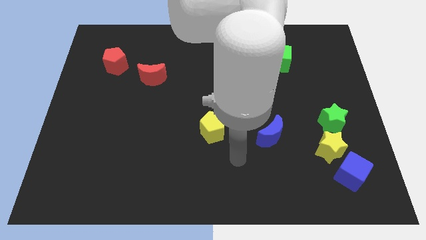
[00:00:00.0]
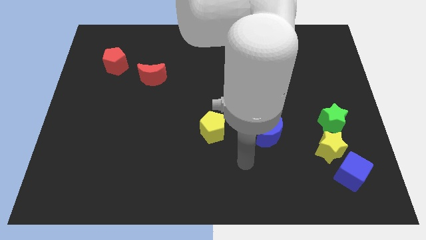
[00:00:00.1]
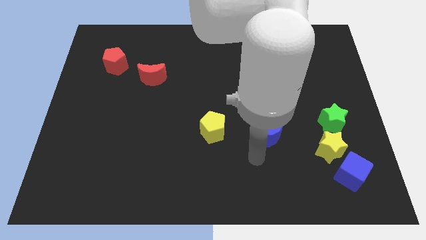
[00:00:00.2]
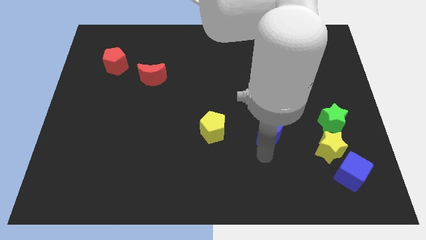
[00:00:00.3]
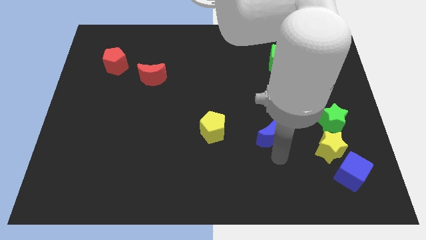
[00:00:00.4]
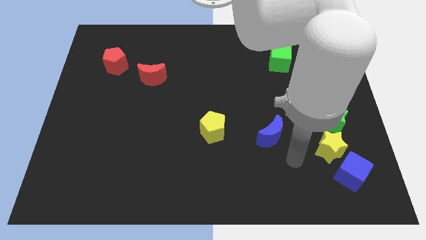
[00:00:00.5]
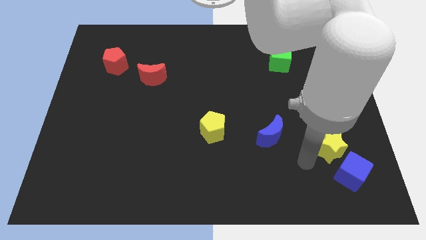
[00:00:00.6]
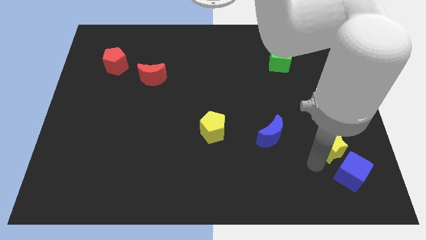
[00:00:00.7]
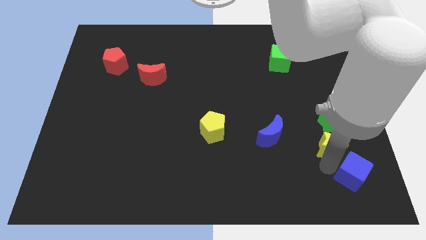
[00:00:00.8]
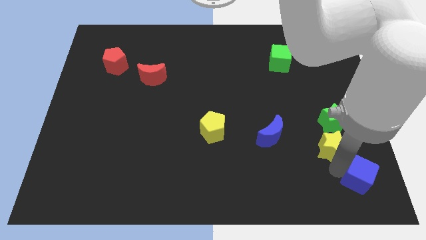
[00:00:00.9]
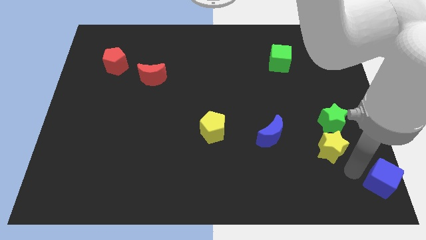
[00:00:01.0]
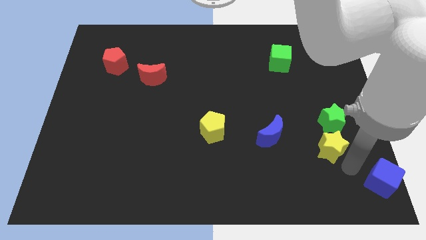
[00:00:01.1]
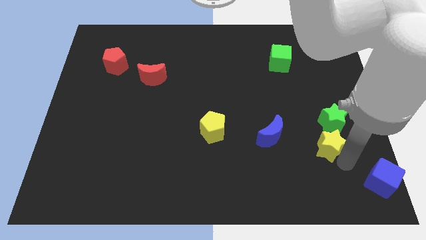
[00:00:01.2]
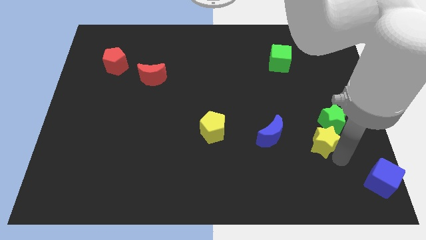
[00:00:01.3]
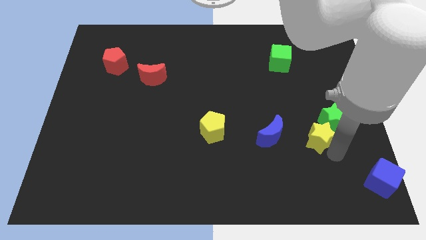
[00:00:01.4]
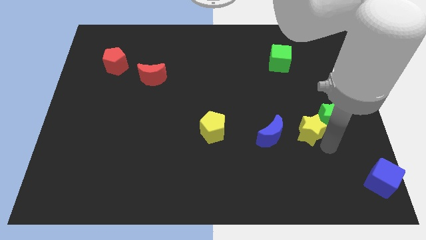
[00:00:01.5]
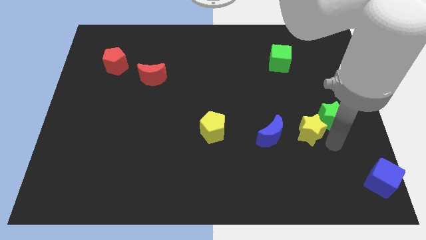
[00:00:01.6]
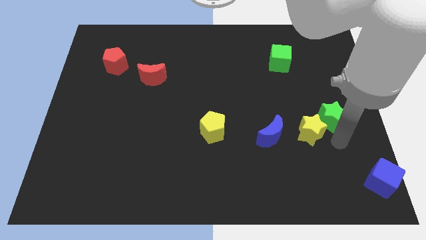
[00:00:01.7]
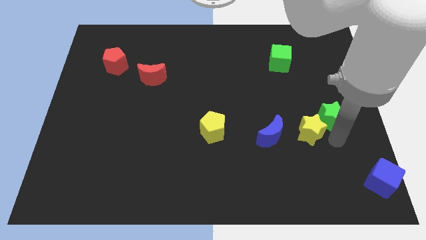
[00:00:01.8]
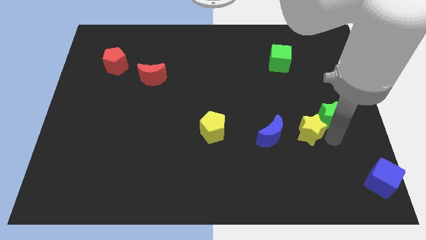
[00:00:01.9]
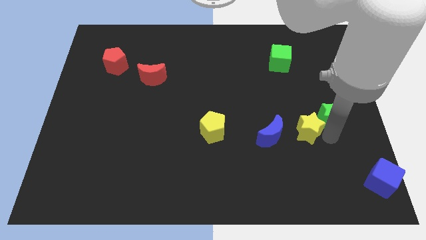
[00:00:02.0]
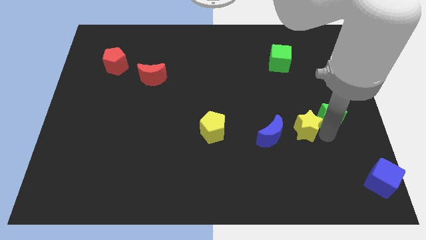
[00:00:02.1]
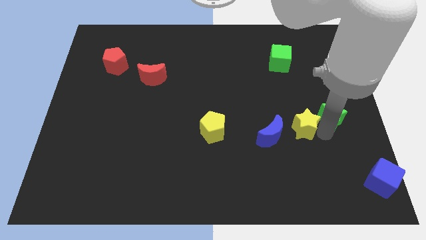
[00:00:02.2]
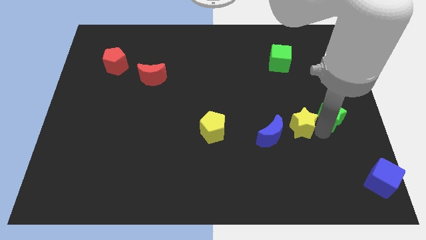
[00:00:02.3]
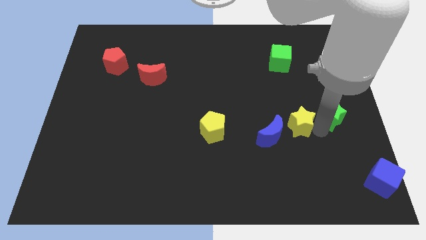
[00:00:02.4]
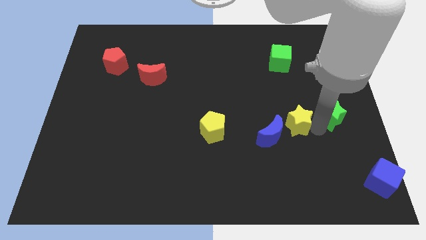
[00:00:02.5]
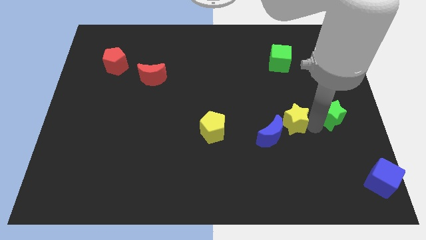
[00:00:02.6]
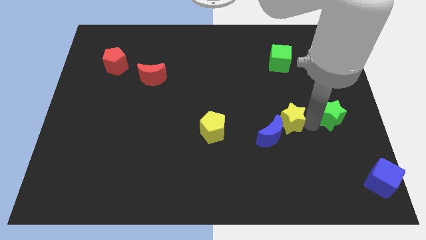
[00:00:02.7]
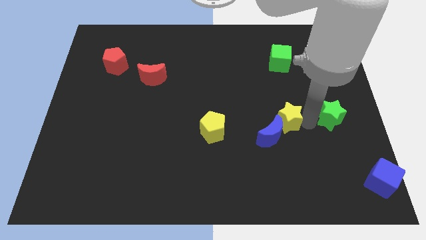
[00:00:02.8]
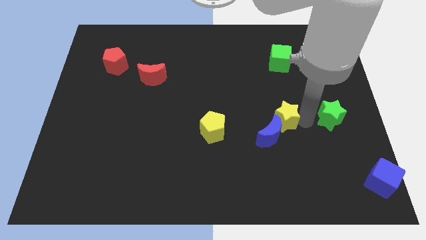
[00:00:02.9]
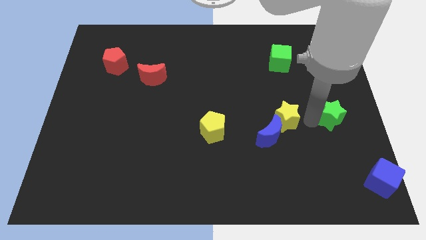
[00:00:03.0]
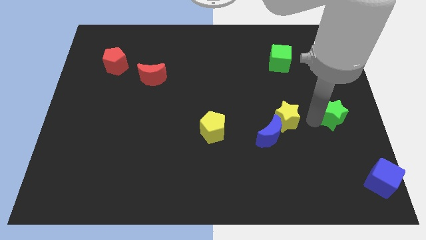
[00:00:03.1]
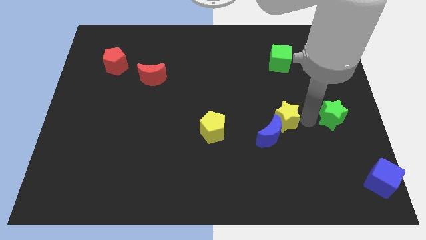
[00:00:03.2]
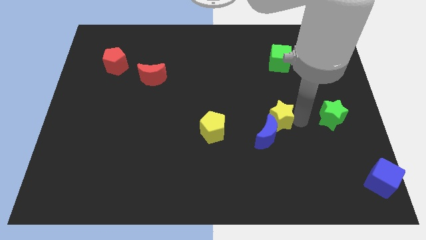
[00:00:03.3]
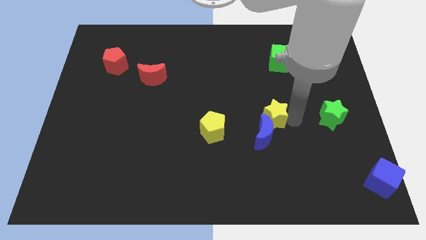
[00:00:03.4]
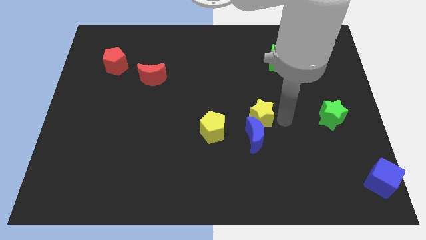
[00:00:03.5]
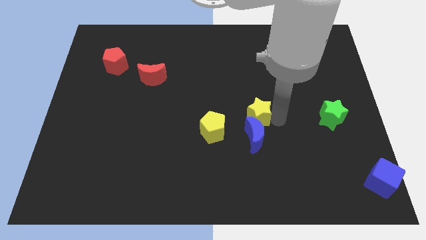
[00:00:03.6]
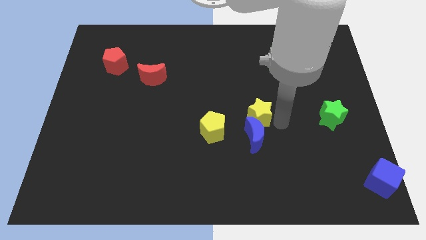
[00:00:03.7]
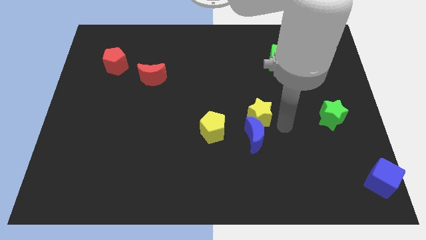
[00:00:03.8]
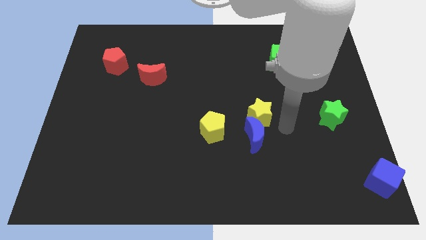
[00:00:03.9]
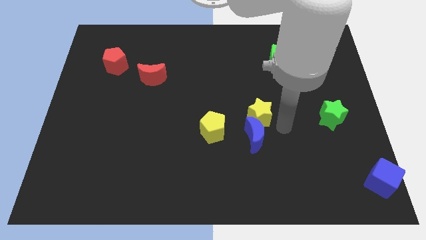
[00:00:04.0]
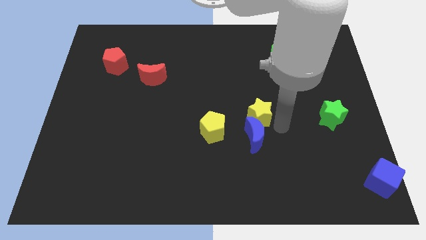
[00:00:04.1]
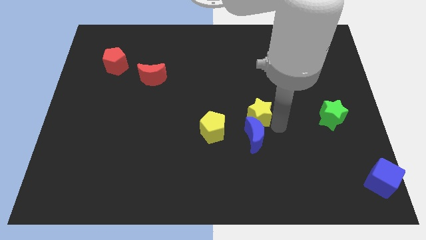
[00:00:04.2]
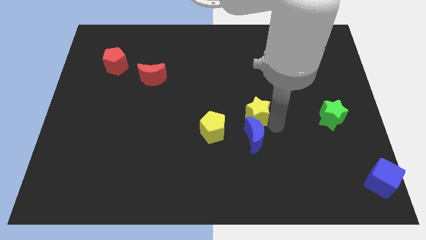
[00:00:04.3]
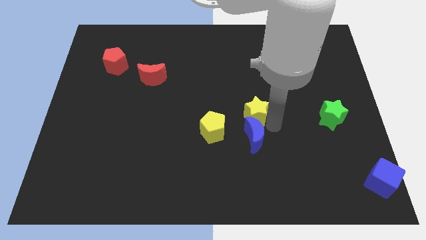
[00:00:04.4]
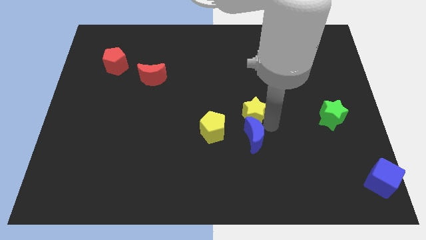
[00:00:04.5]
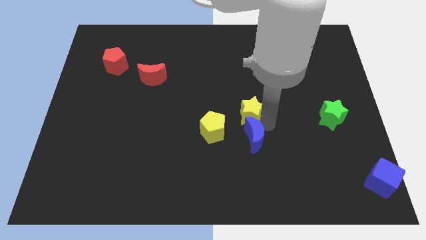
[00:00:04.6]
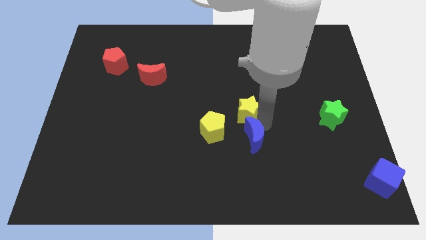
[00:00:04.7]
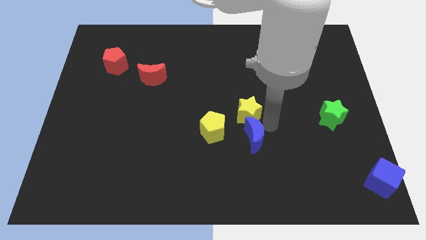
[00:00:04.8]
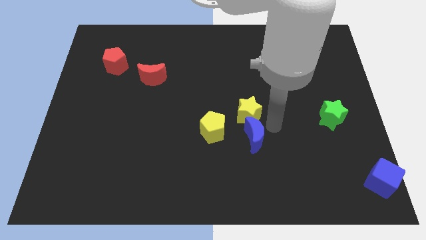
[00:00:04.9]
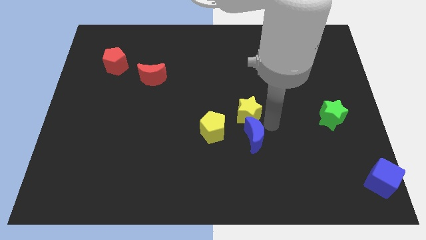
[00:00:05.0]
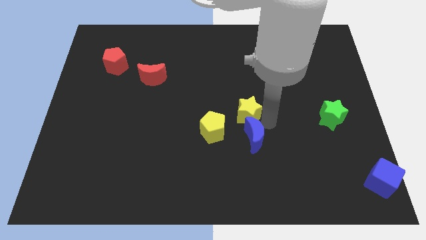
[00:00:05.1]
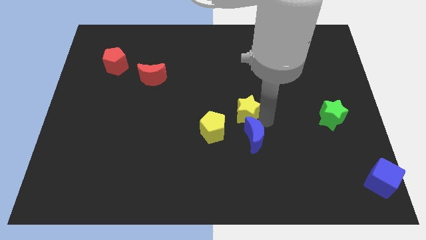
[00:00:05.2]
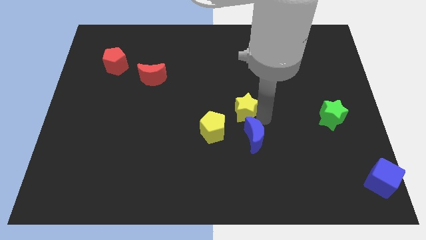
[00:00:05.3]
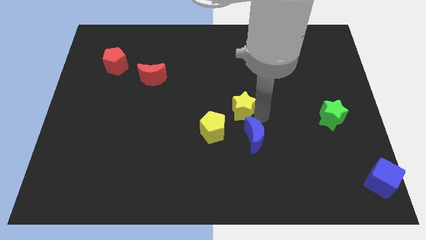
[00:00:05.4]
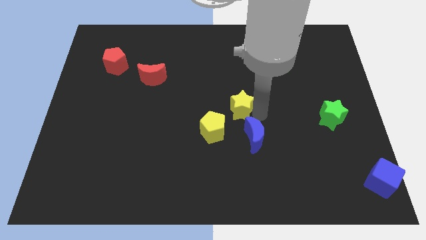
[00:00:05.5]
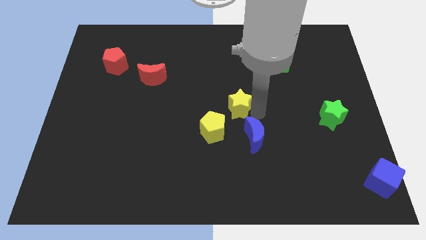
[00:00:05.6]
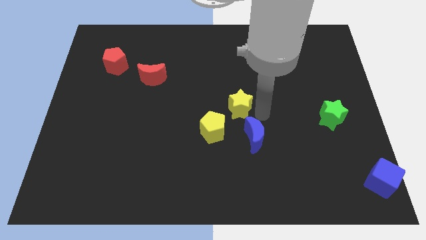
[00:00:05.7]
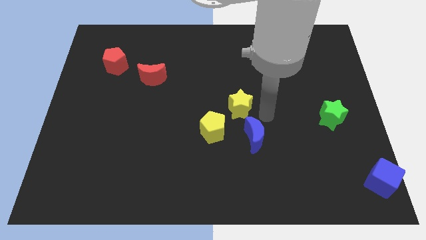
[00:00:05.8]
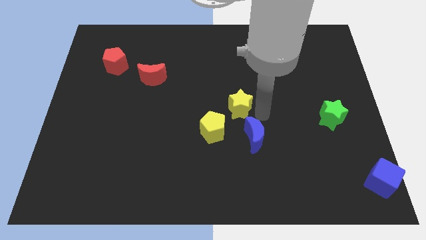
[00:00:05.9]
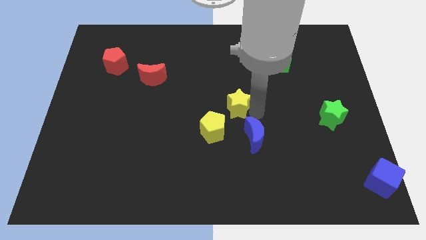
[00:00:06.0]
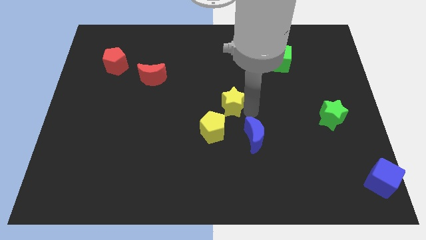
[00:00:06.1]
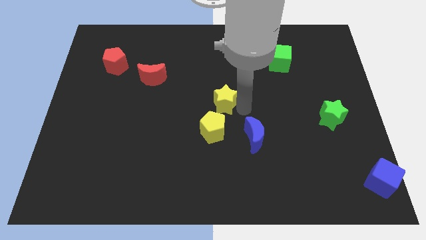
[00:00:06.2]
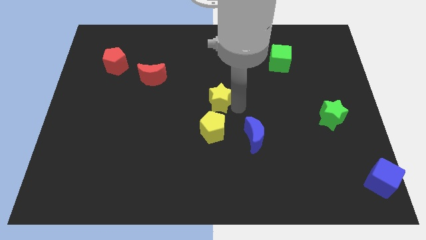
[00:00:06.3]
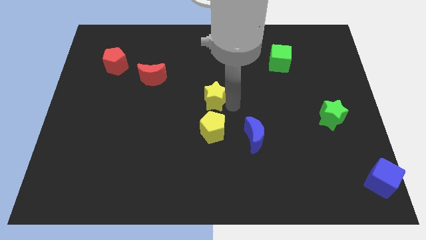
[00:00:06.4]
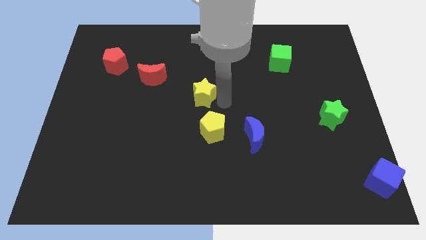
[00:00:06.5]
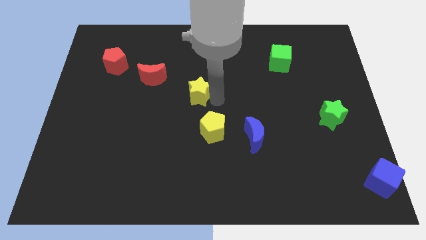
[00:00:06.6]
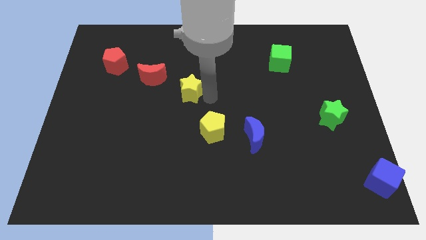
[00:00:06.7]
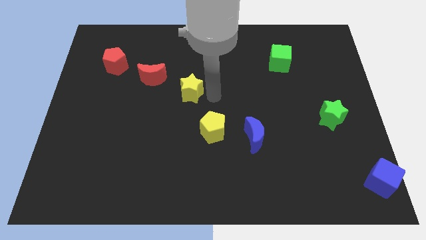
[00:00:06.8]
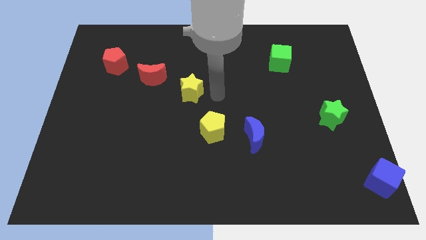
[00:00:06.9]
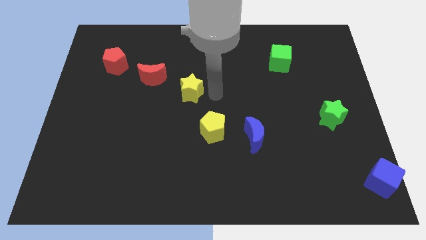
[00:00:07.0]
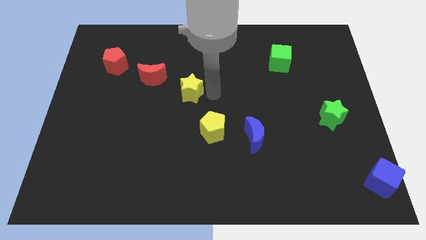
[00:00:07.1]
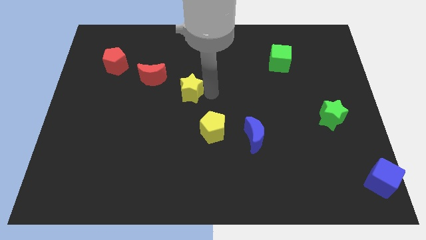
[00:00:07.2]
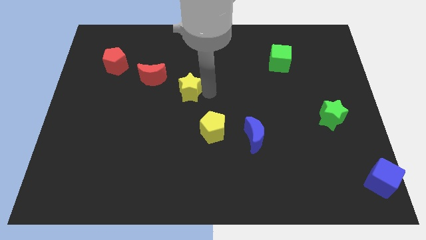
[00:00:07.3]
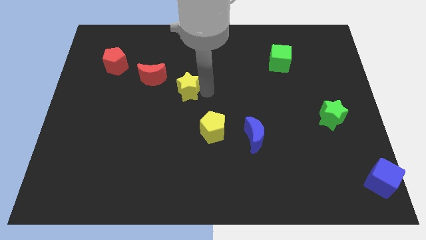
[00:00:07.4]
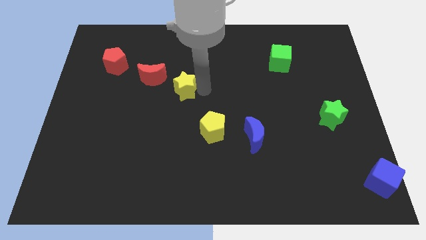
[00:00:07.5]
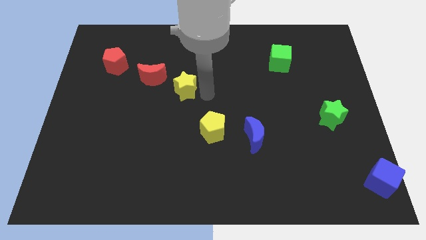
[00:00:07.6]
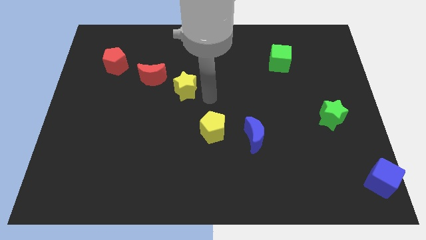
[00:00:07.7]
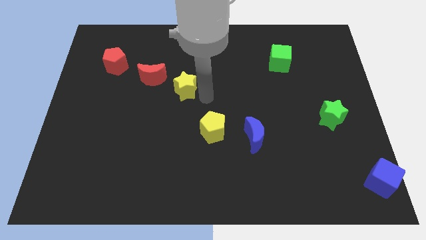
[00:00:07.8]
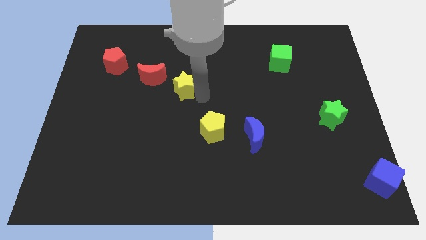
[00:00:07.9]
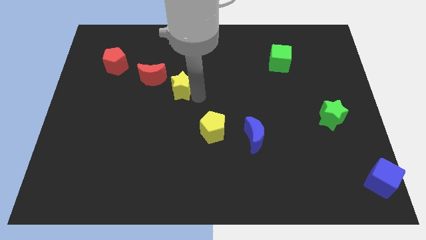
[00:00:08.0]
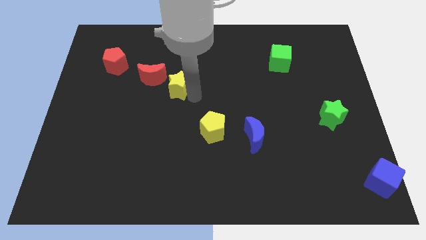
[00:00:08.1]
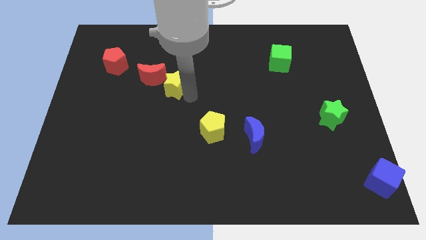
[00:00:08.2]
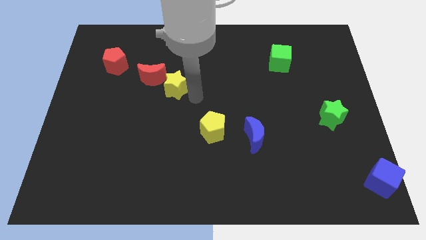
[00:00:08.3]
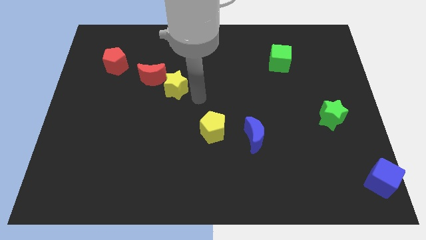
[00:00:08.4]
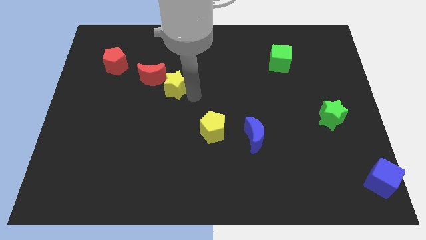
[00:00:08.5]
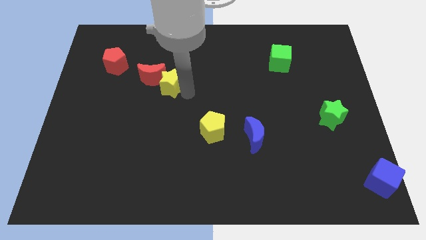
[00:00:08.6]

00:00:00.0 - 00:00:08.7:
slide the yellow star next to the red moon
